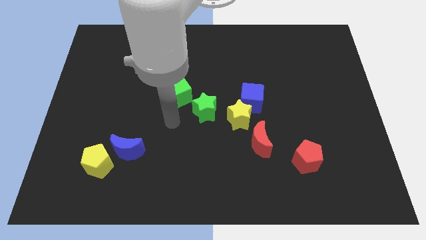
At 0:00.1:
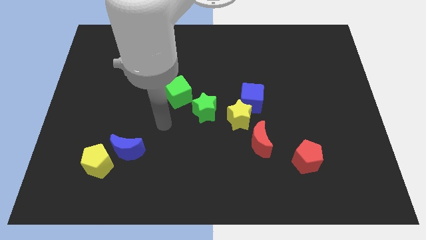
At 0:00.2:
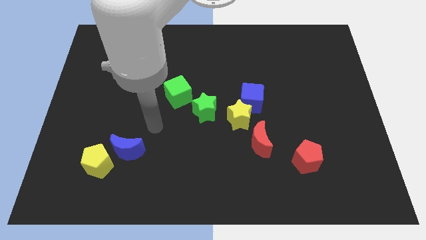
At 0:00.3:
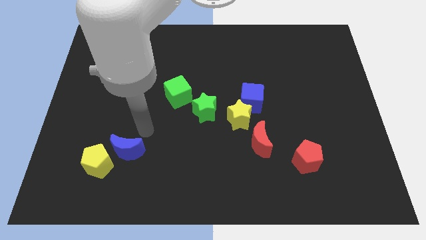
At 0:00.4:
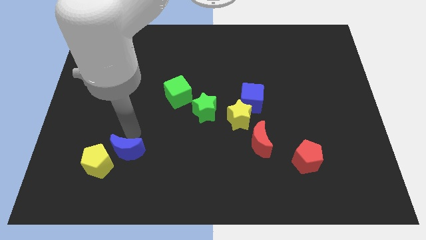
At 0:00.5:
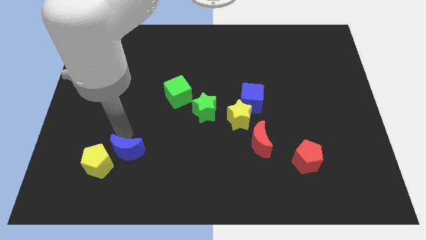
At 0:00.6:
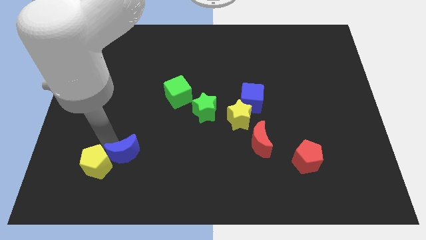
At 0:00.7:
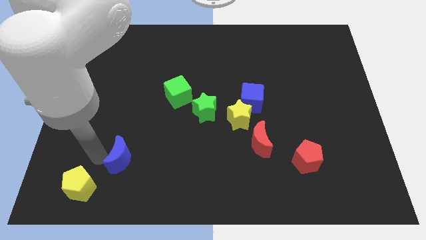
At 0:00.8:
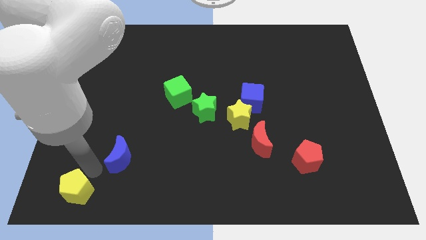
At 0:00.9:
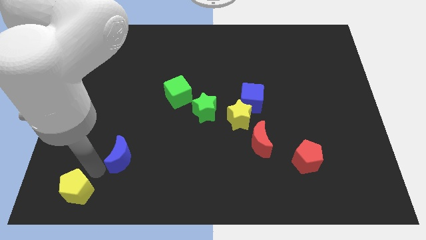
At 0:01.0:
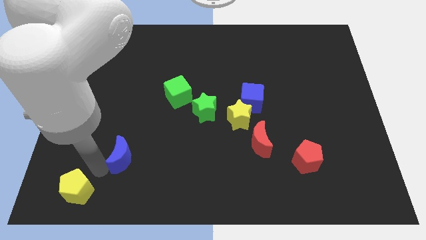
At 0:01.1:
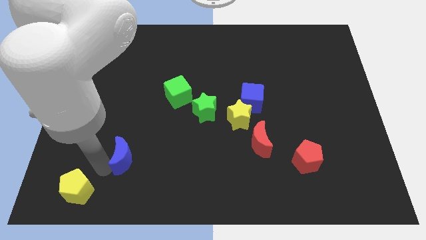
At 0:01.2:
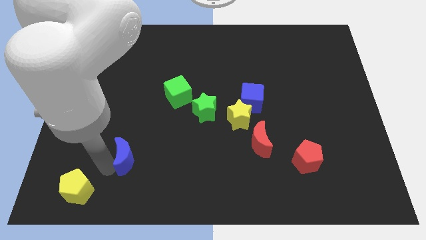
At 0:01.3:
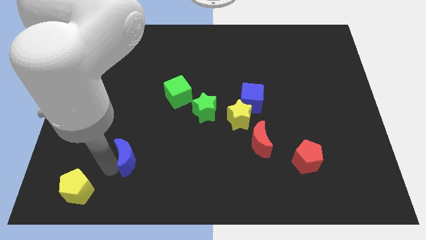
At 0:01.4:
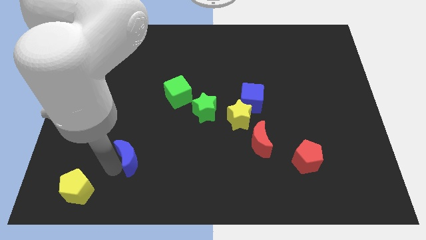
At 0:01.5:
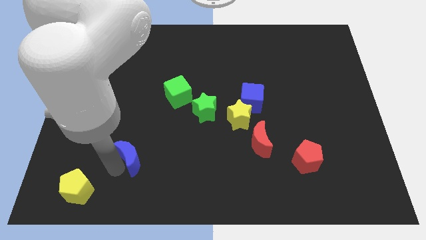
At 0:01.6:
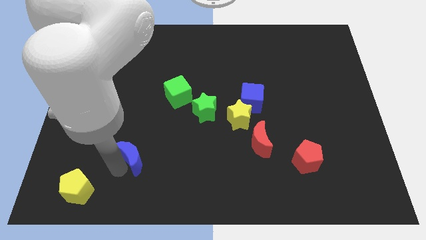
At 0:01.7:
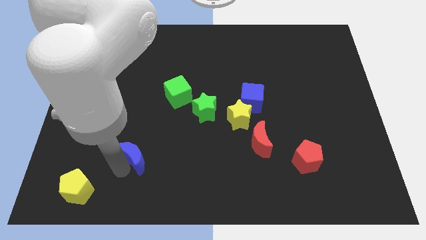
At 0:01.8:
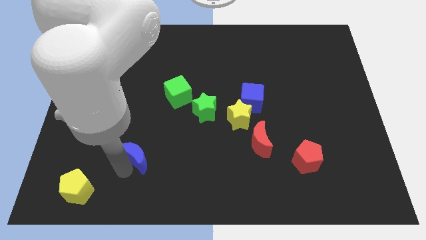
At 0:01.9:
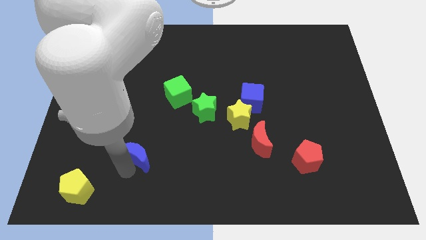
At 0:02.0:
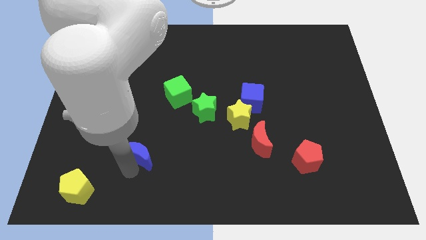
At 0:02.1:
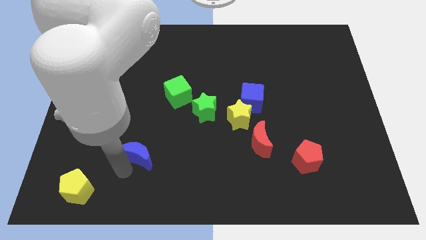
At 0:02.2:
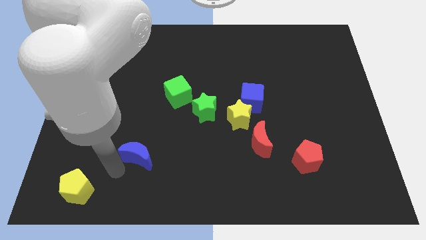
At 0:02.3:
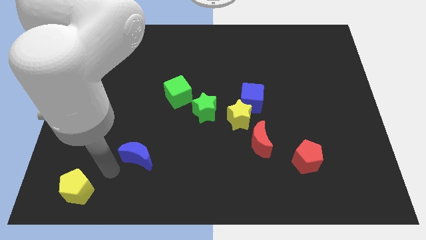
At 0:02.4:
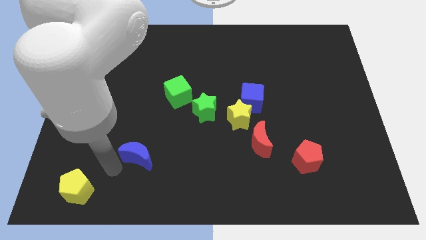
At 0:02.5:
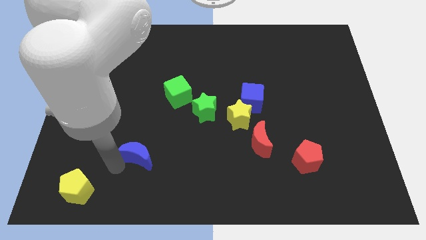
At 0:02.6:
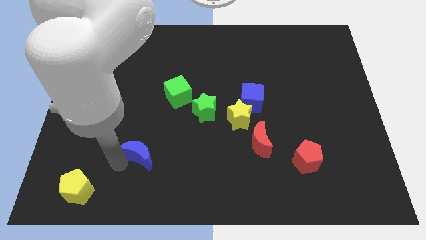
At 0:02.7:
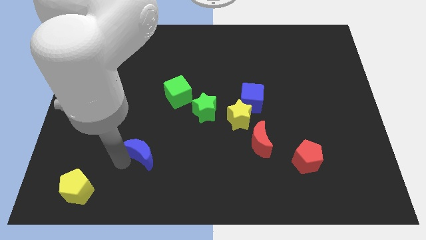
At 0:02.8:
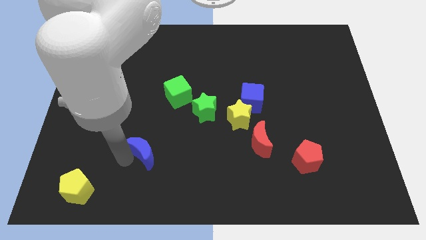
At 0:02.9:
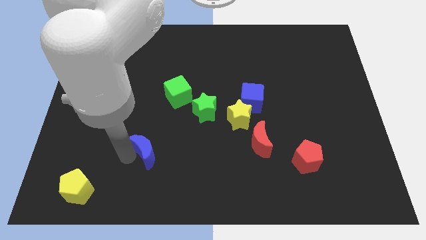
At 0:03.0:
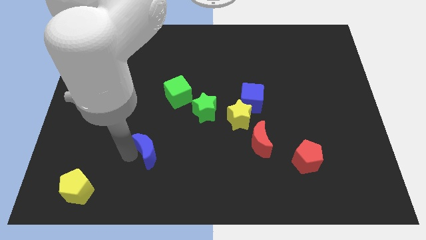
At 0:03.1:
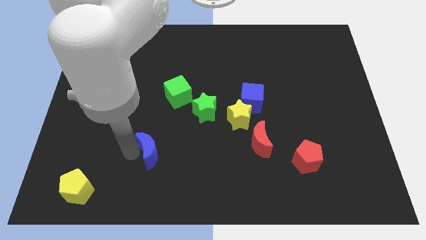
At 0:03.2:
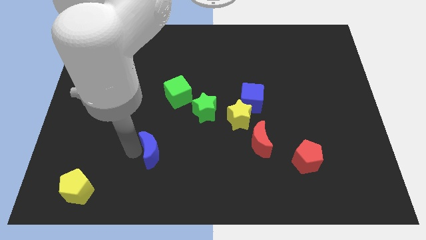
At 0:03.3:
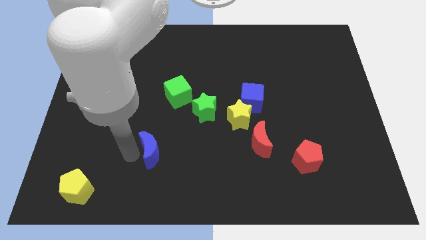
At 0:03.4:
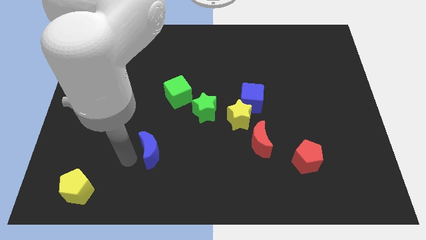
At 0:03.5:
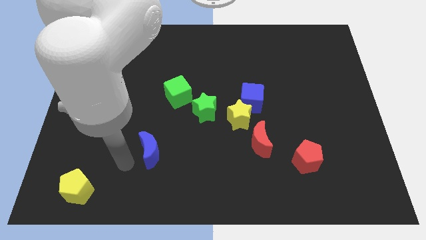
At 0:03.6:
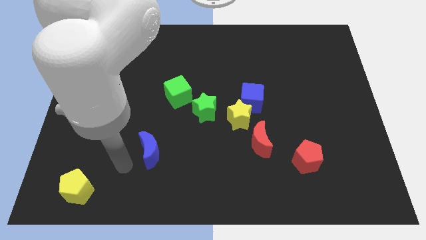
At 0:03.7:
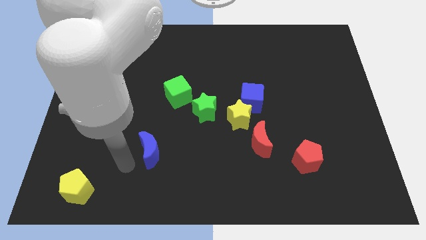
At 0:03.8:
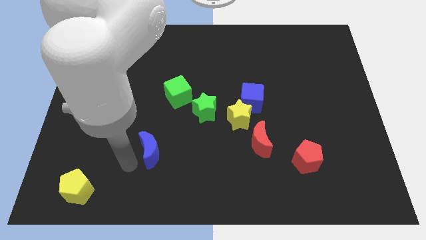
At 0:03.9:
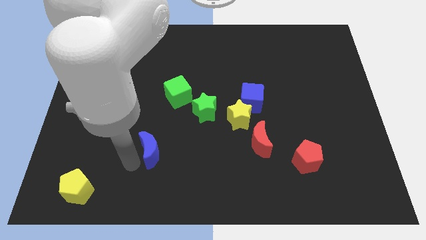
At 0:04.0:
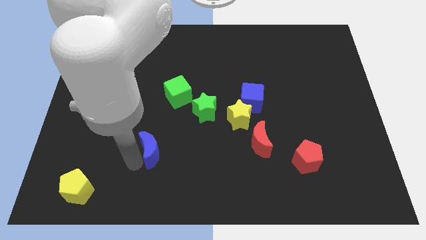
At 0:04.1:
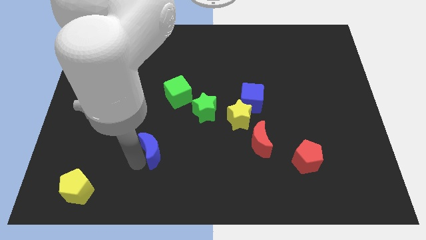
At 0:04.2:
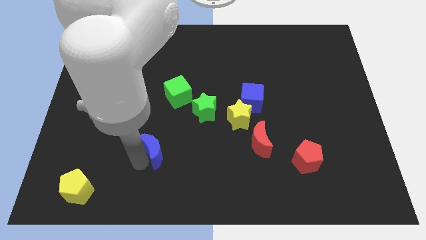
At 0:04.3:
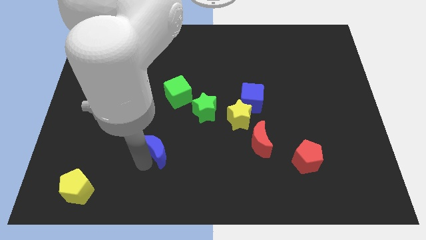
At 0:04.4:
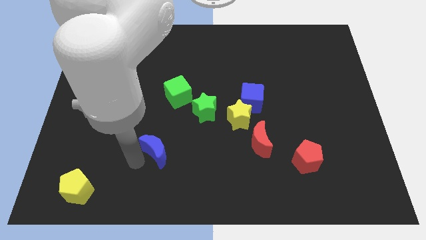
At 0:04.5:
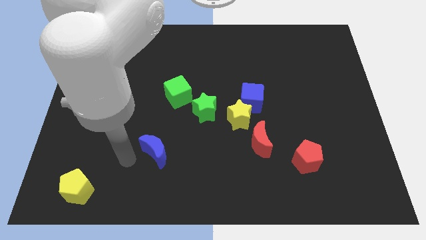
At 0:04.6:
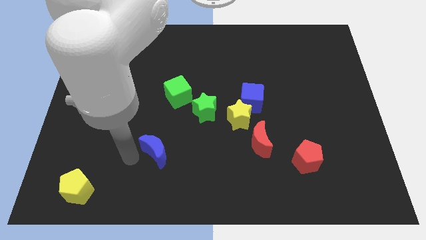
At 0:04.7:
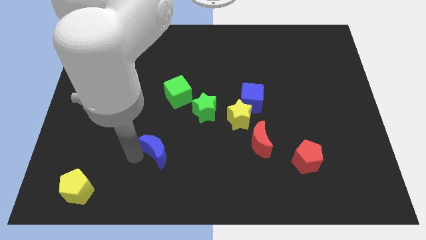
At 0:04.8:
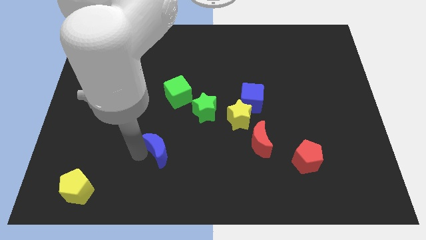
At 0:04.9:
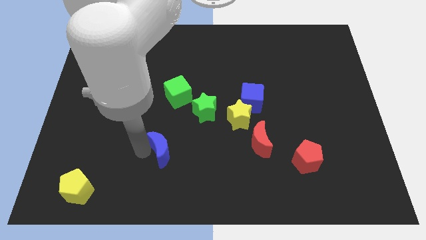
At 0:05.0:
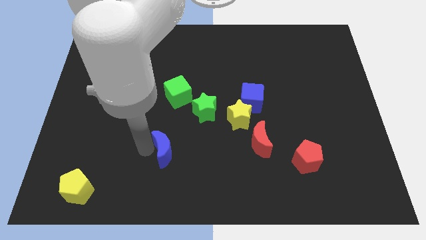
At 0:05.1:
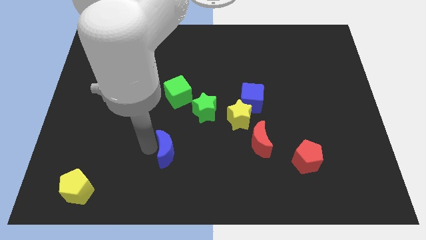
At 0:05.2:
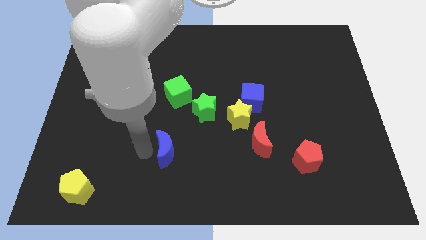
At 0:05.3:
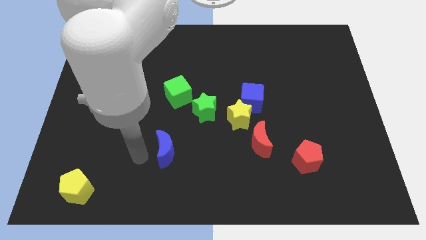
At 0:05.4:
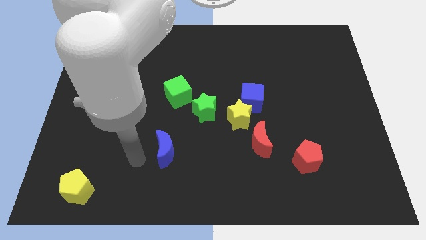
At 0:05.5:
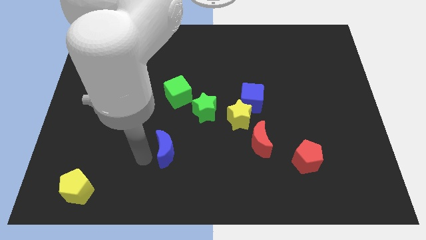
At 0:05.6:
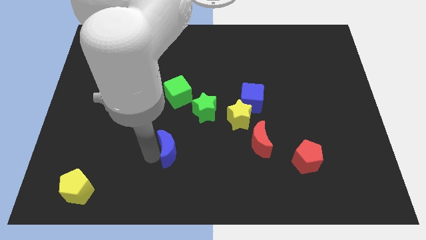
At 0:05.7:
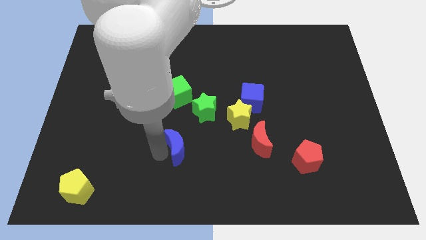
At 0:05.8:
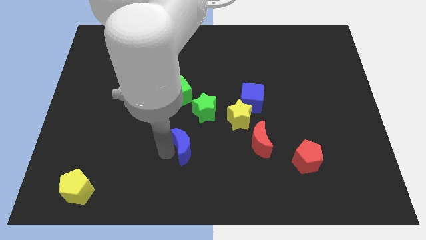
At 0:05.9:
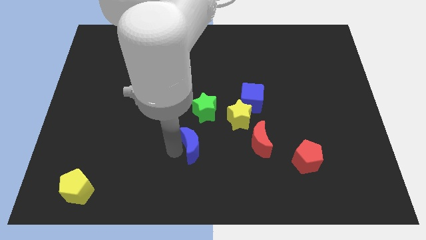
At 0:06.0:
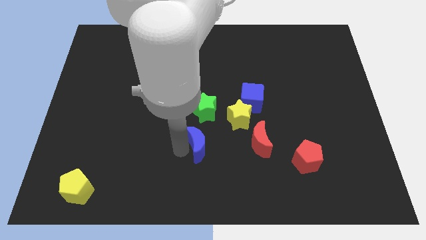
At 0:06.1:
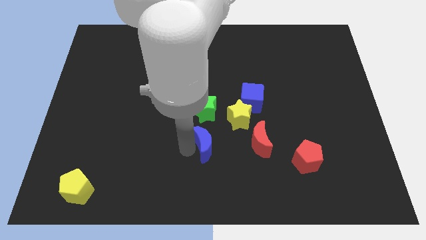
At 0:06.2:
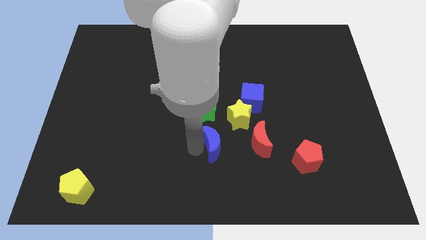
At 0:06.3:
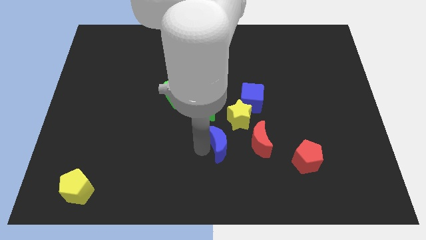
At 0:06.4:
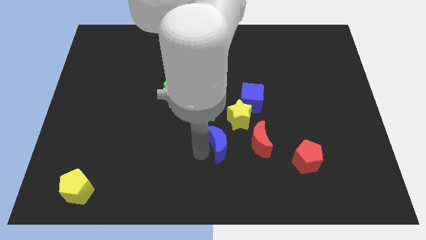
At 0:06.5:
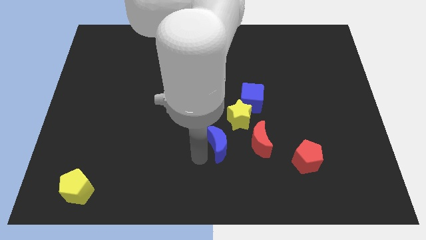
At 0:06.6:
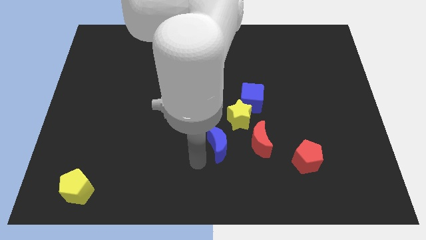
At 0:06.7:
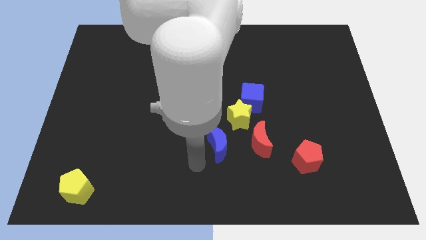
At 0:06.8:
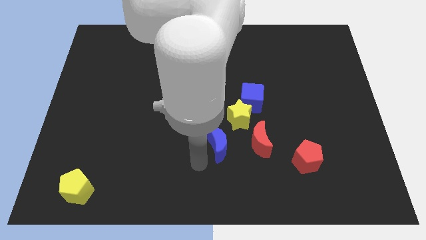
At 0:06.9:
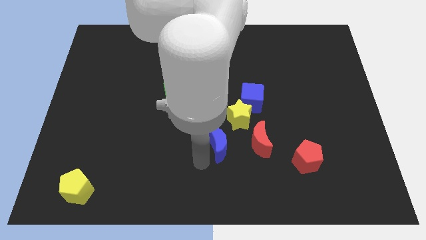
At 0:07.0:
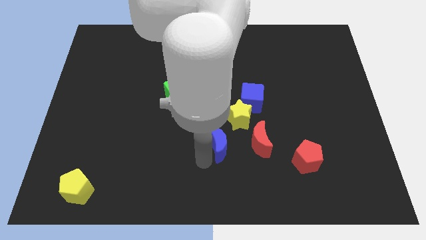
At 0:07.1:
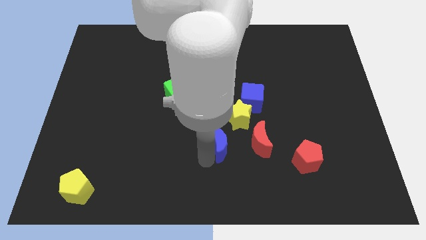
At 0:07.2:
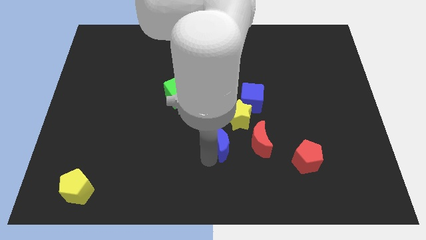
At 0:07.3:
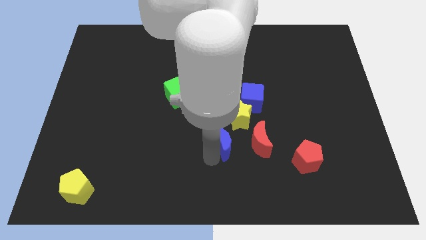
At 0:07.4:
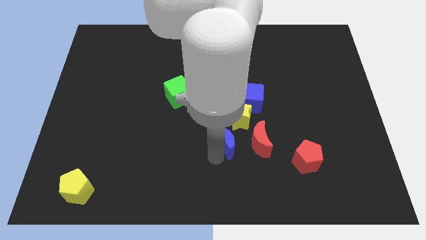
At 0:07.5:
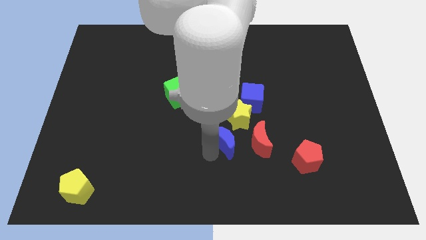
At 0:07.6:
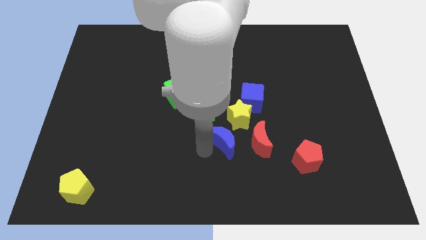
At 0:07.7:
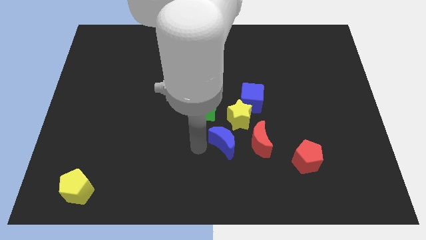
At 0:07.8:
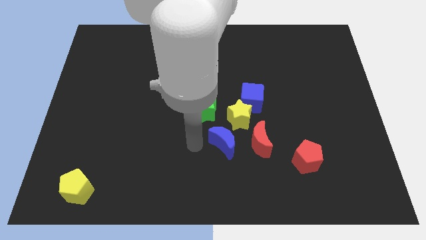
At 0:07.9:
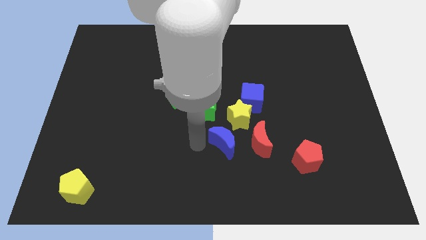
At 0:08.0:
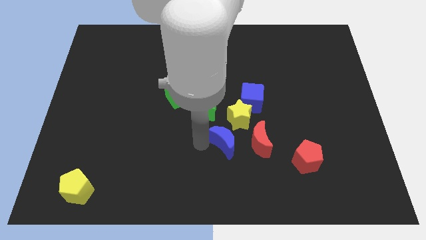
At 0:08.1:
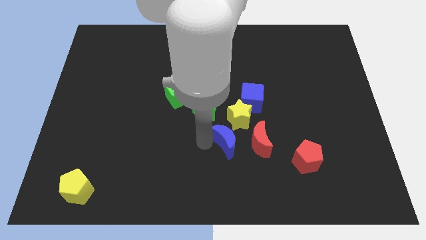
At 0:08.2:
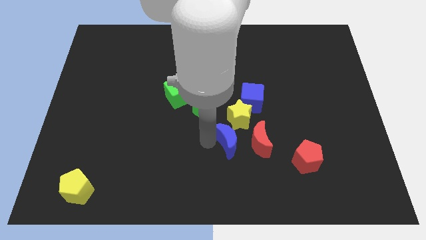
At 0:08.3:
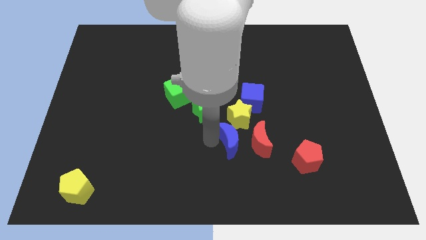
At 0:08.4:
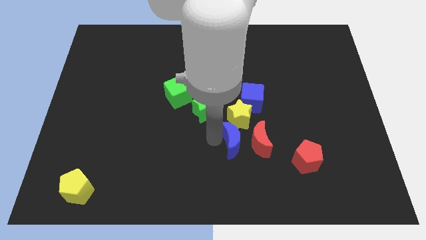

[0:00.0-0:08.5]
move the blue moon towards the red moon
